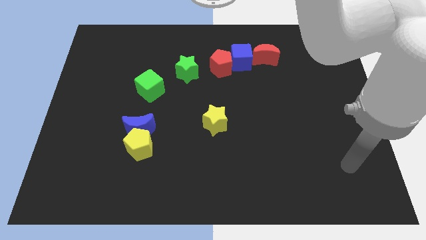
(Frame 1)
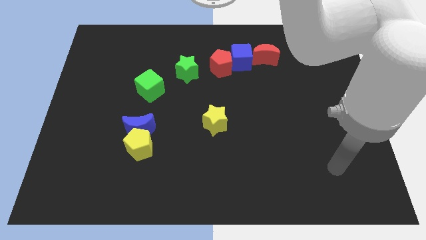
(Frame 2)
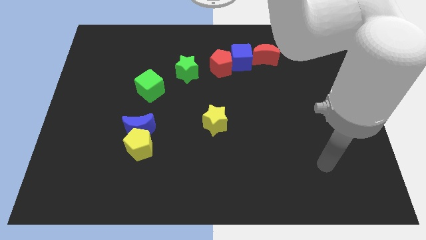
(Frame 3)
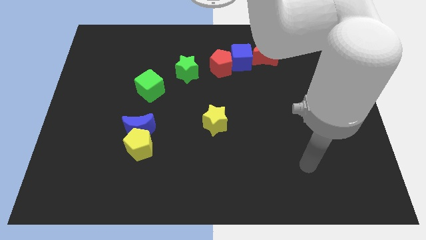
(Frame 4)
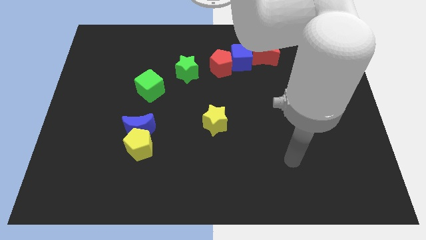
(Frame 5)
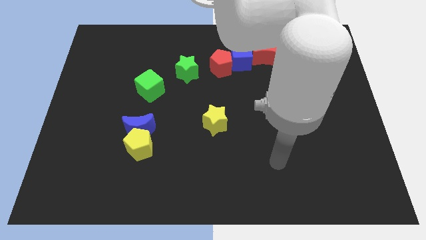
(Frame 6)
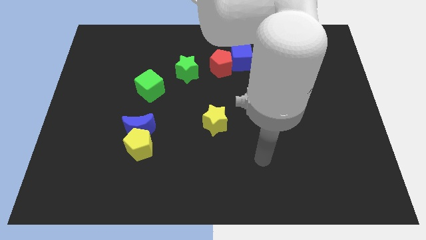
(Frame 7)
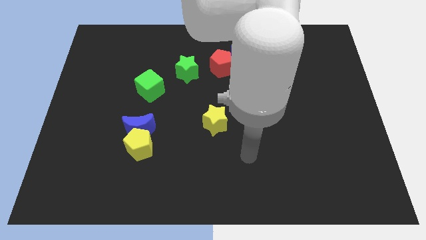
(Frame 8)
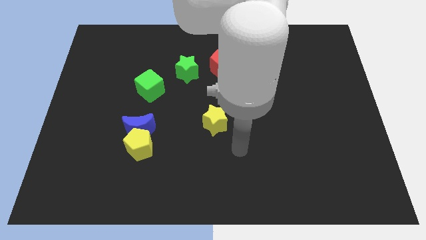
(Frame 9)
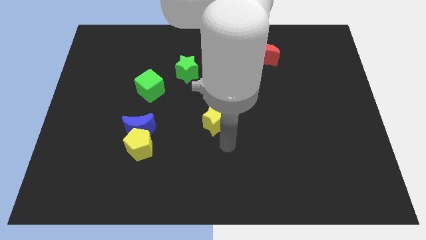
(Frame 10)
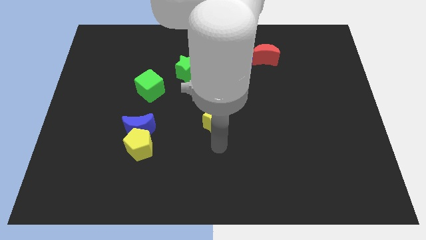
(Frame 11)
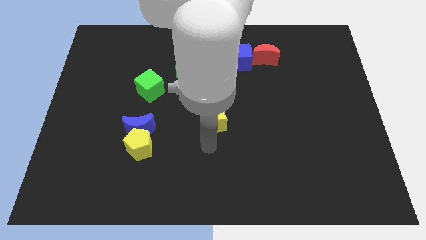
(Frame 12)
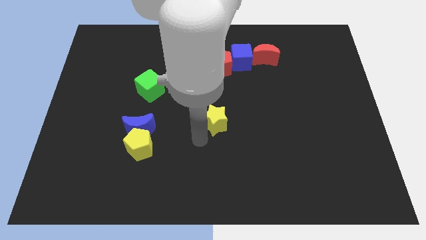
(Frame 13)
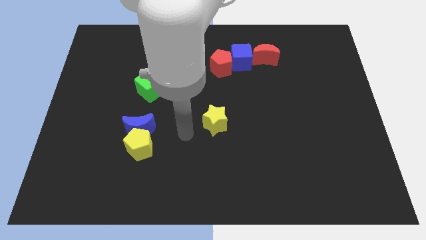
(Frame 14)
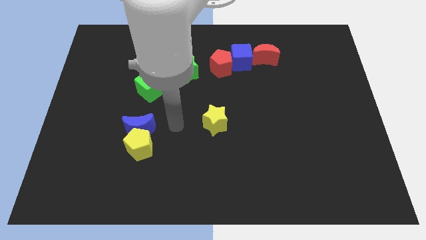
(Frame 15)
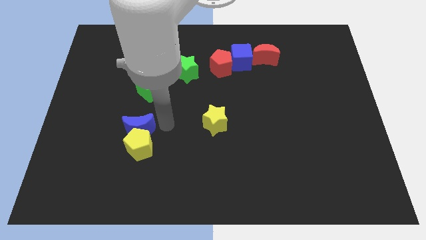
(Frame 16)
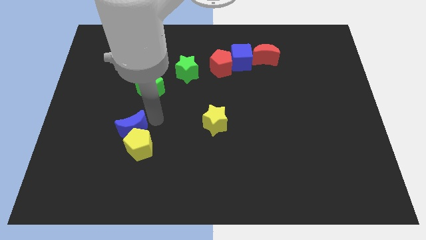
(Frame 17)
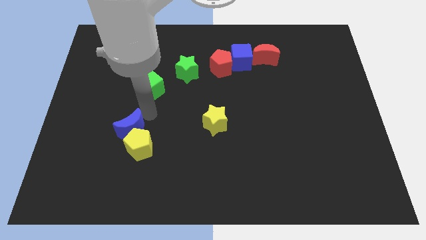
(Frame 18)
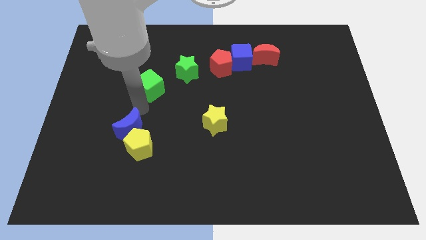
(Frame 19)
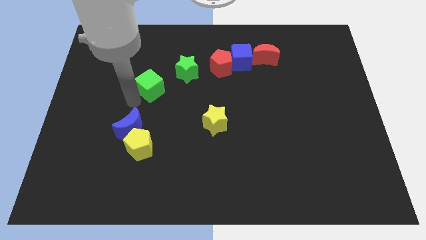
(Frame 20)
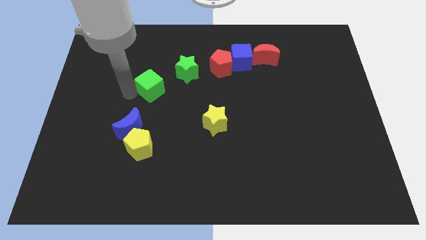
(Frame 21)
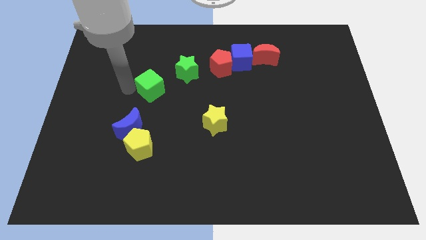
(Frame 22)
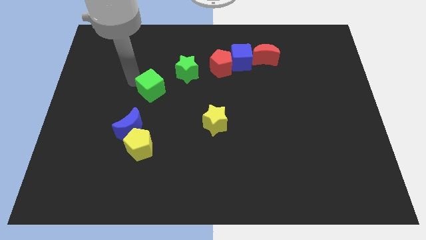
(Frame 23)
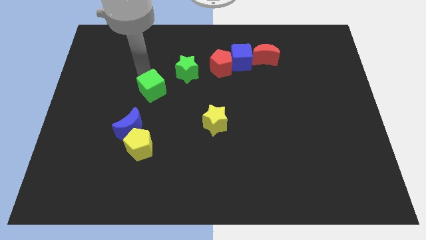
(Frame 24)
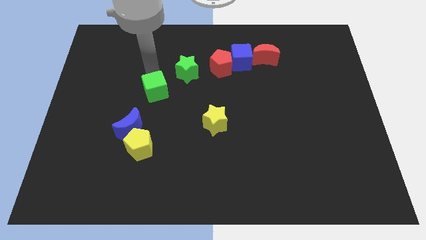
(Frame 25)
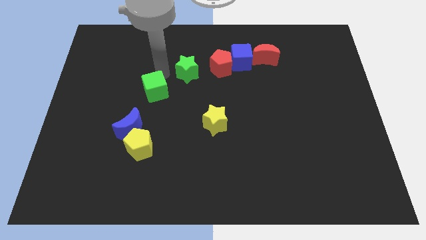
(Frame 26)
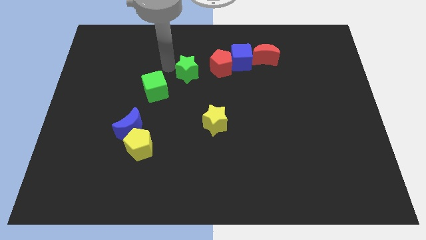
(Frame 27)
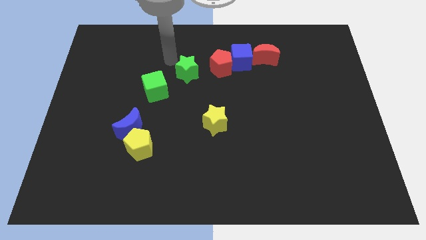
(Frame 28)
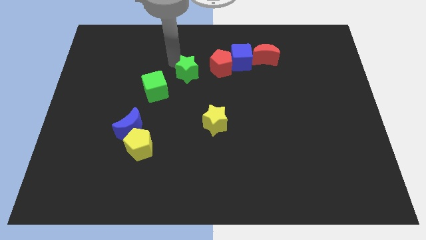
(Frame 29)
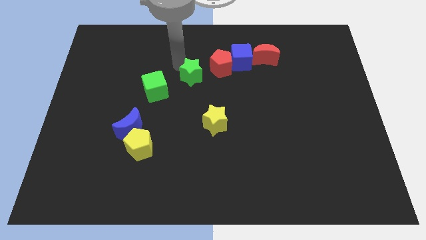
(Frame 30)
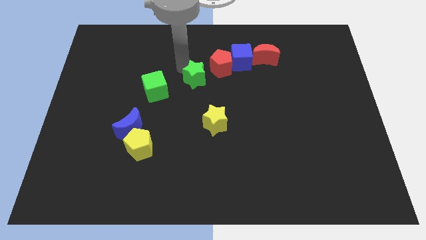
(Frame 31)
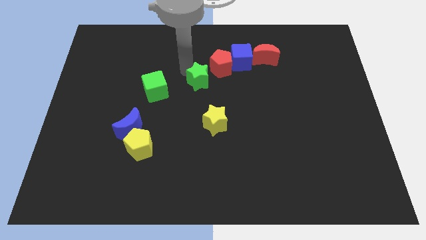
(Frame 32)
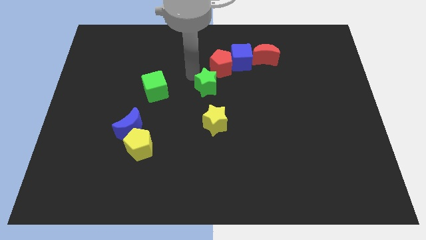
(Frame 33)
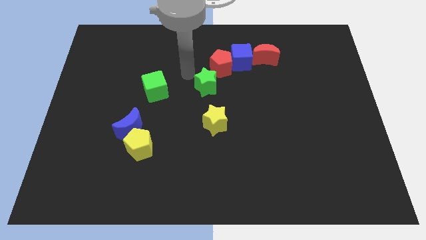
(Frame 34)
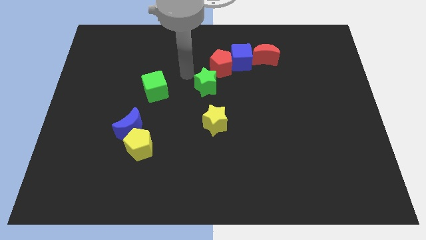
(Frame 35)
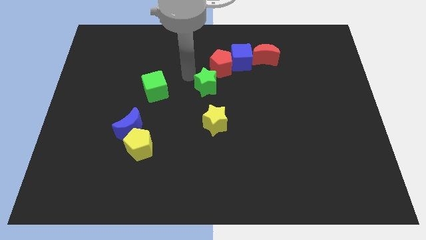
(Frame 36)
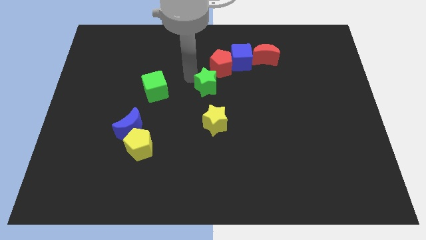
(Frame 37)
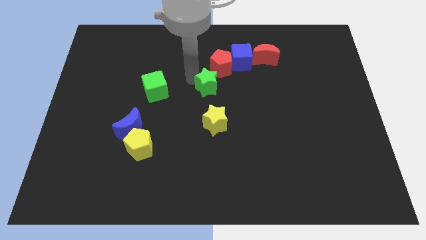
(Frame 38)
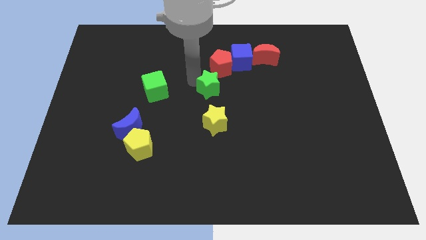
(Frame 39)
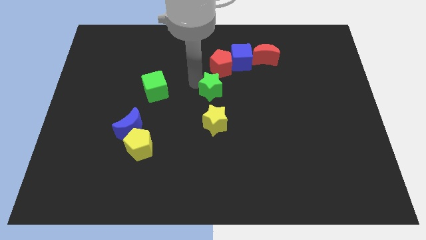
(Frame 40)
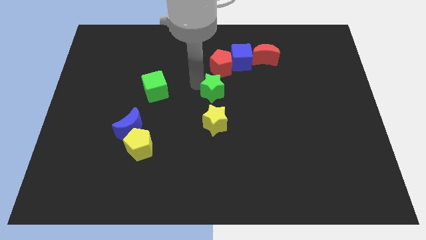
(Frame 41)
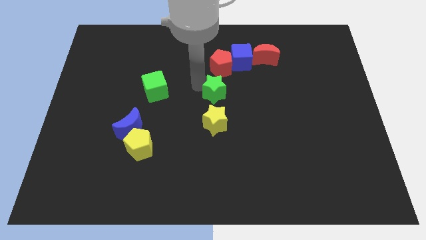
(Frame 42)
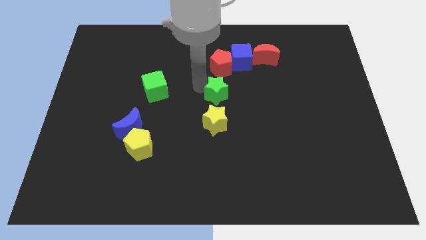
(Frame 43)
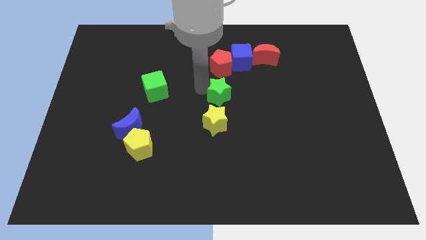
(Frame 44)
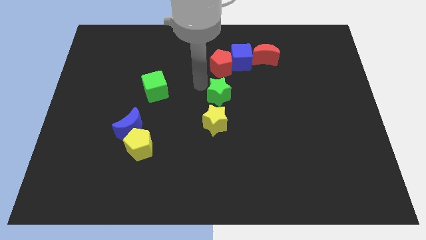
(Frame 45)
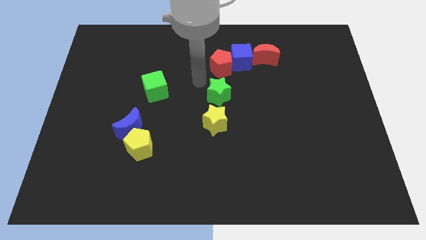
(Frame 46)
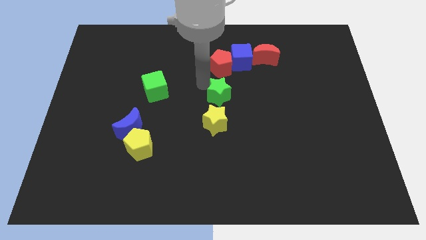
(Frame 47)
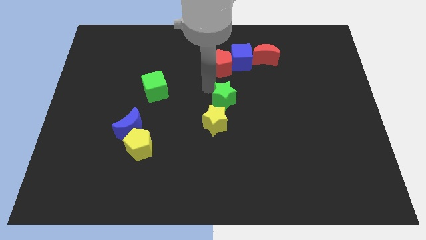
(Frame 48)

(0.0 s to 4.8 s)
move the green star to the top right of the yellow star

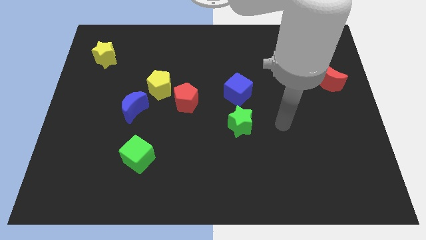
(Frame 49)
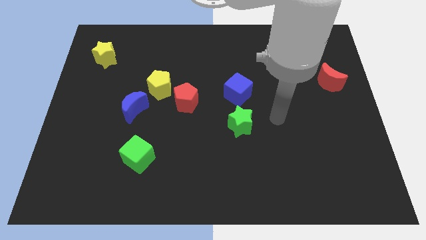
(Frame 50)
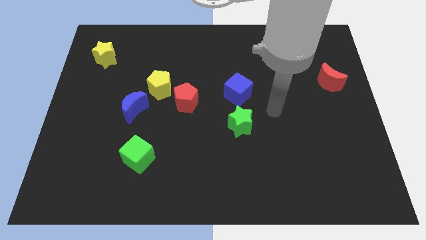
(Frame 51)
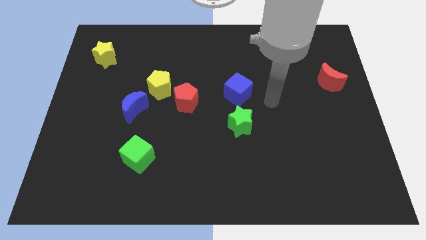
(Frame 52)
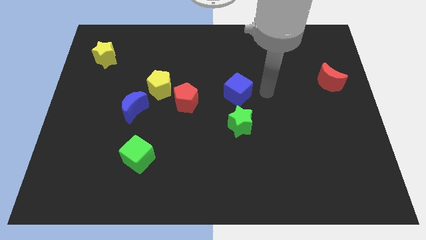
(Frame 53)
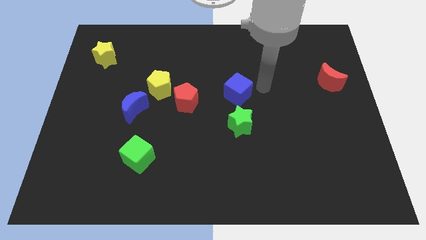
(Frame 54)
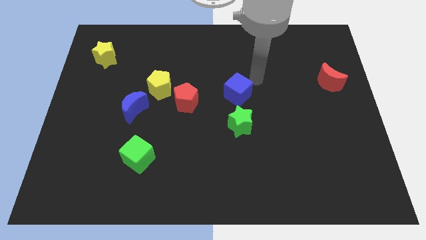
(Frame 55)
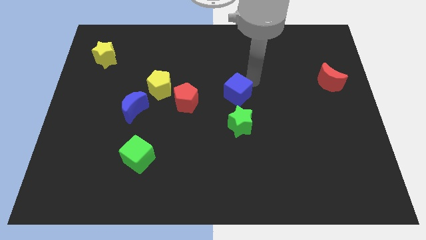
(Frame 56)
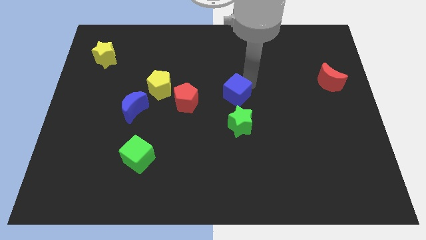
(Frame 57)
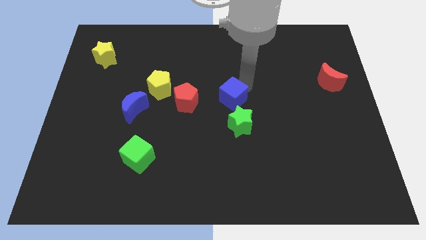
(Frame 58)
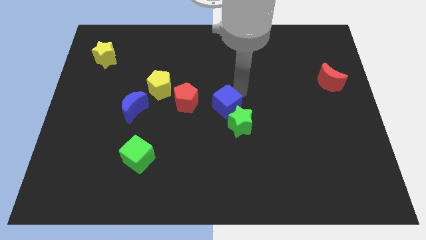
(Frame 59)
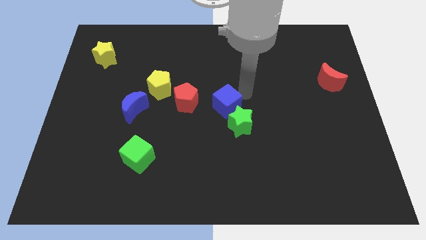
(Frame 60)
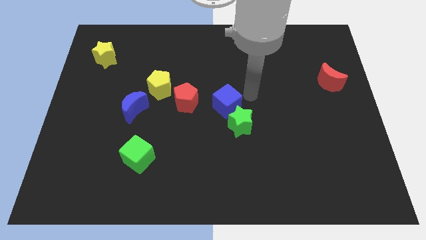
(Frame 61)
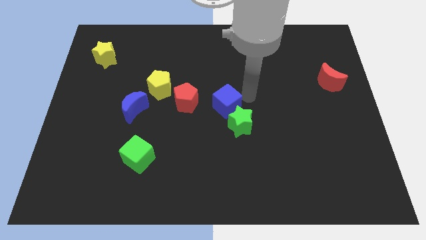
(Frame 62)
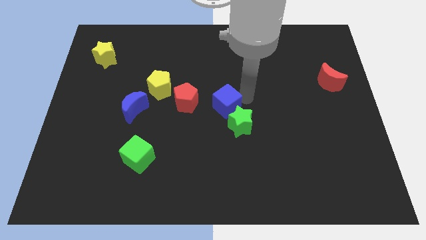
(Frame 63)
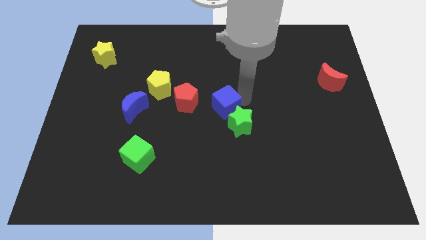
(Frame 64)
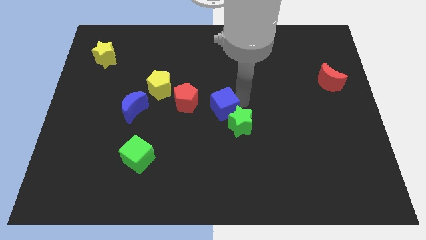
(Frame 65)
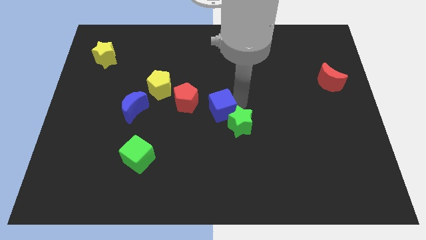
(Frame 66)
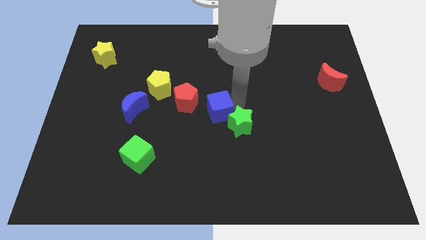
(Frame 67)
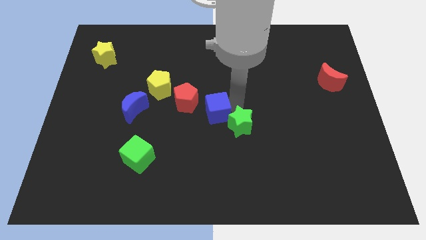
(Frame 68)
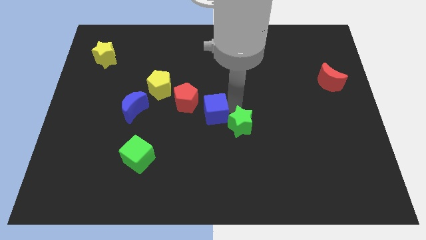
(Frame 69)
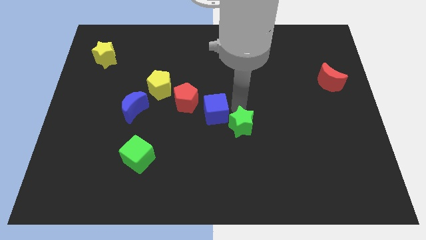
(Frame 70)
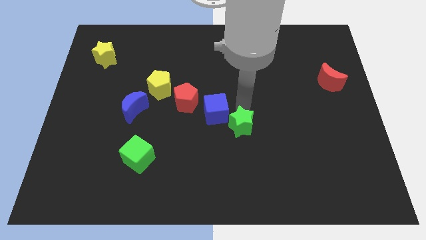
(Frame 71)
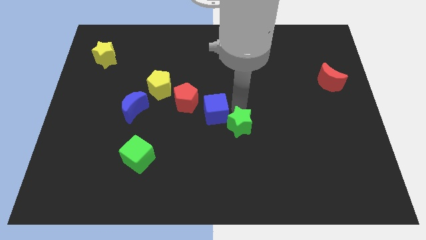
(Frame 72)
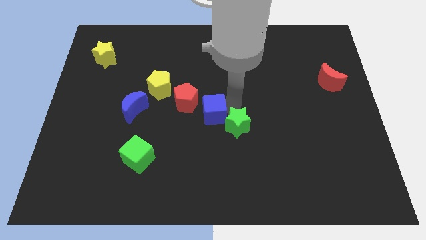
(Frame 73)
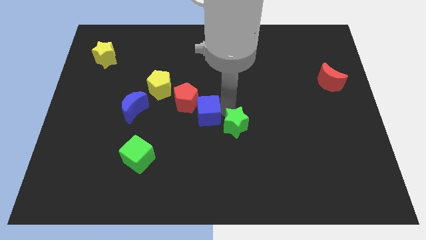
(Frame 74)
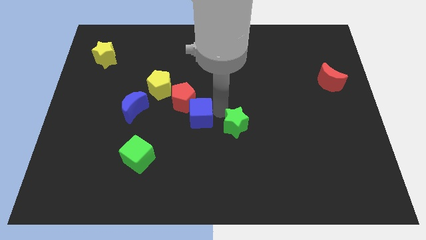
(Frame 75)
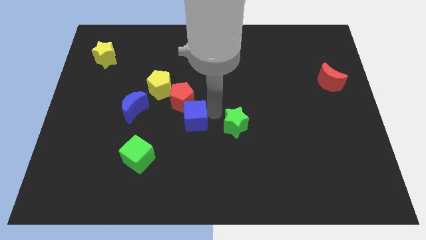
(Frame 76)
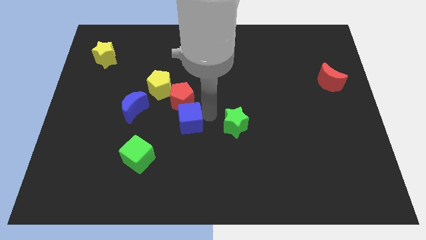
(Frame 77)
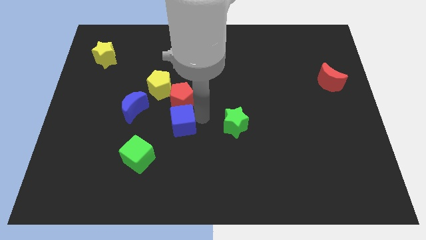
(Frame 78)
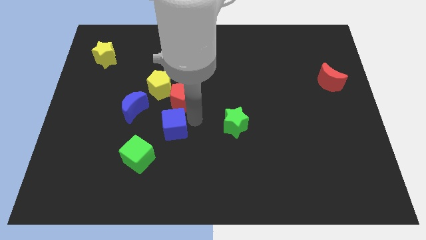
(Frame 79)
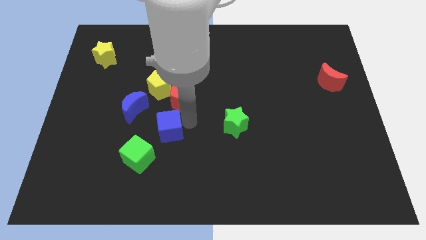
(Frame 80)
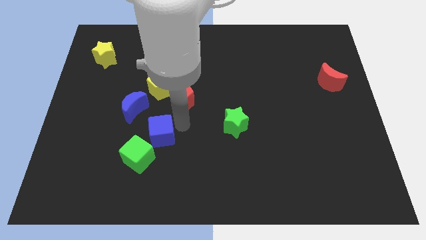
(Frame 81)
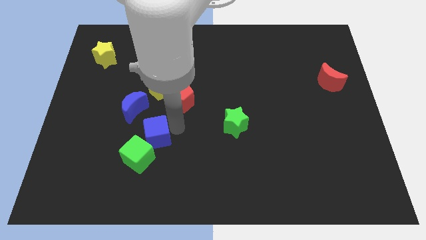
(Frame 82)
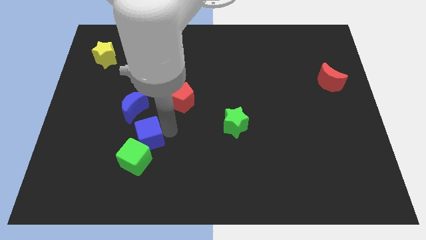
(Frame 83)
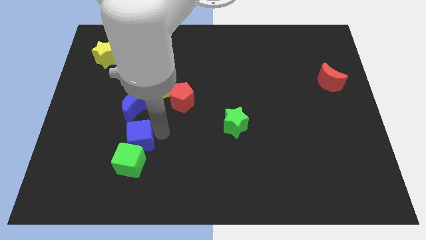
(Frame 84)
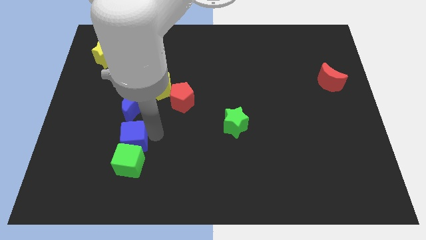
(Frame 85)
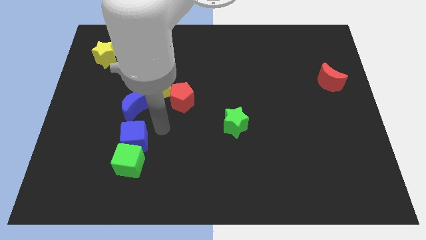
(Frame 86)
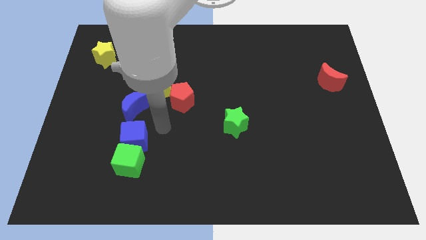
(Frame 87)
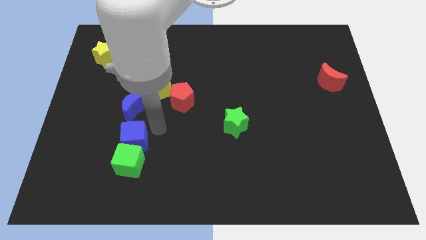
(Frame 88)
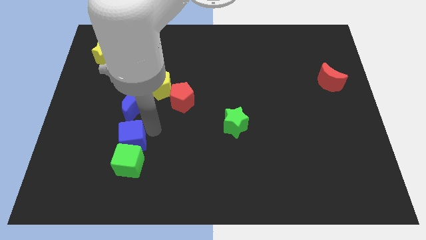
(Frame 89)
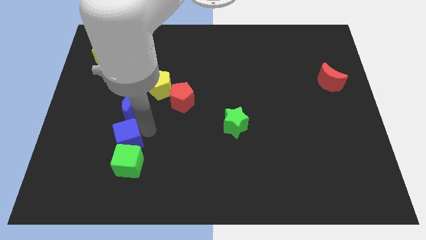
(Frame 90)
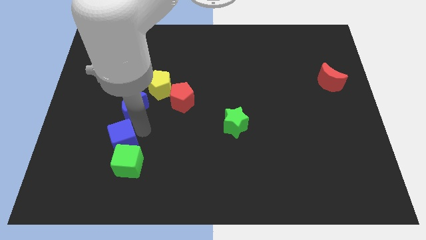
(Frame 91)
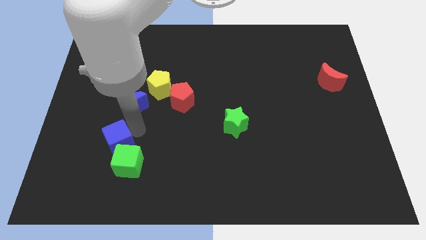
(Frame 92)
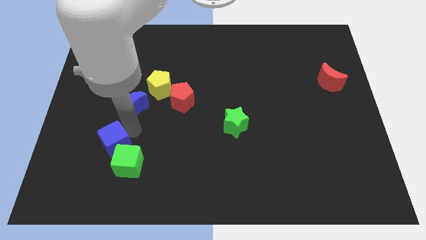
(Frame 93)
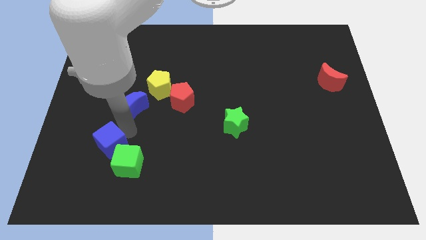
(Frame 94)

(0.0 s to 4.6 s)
put the blue cube left of the green cube
